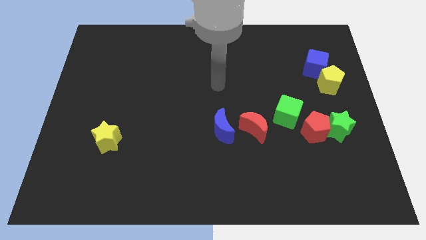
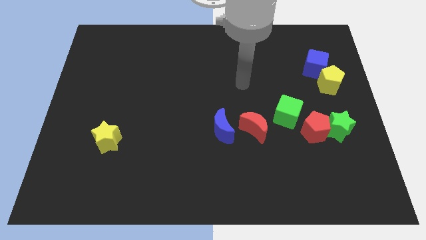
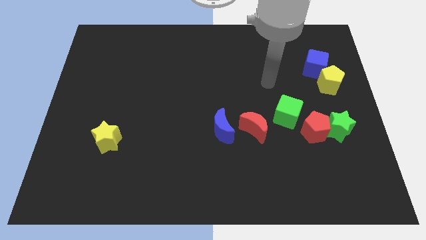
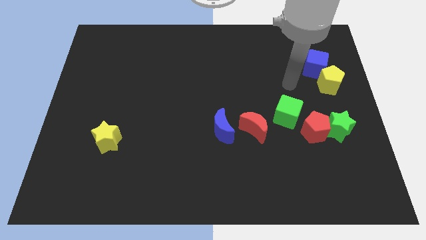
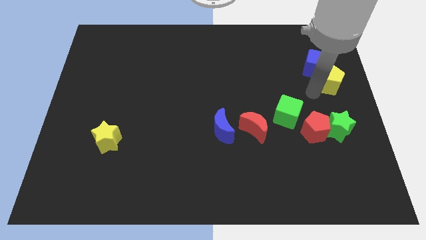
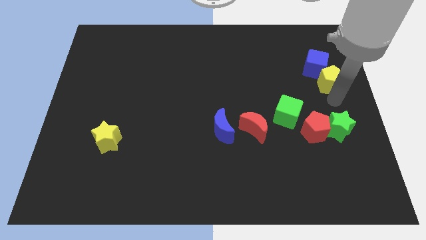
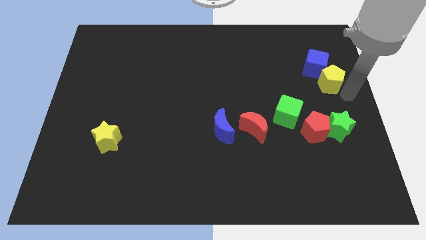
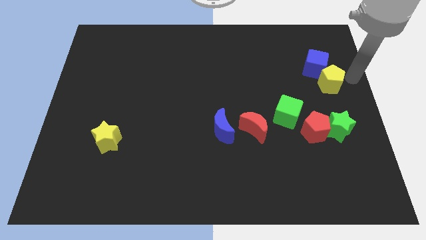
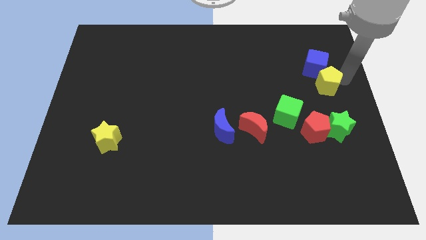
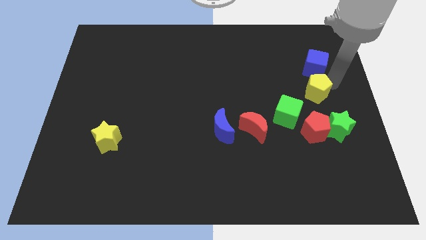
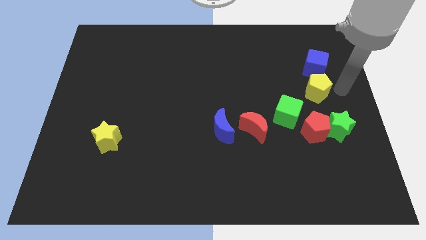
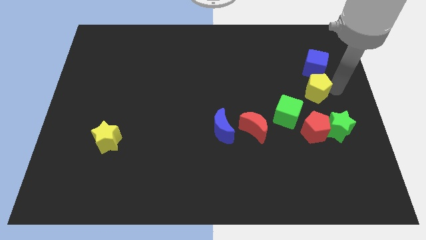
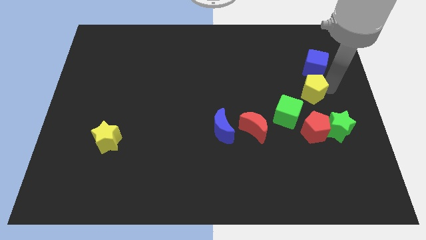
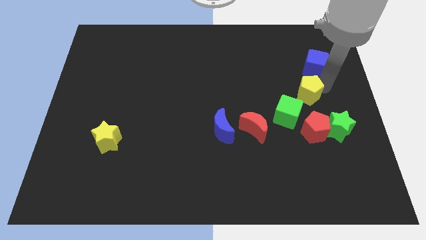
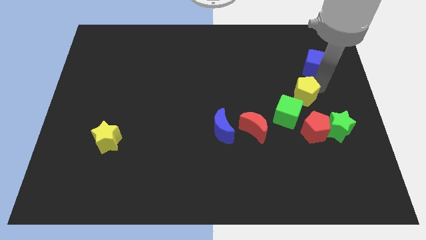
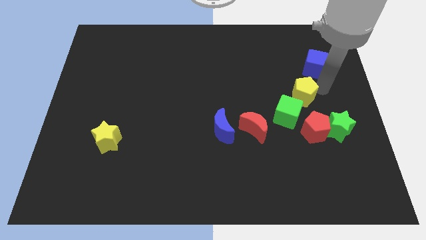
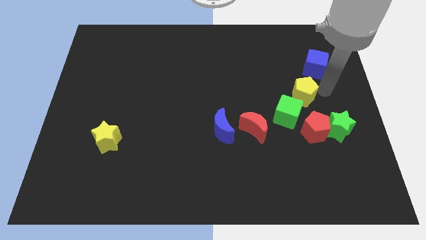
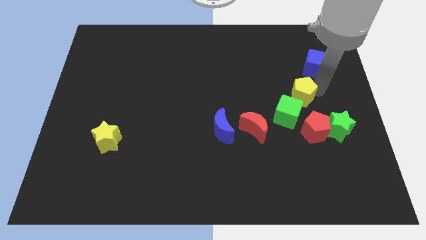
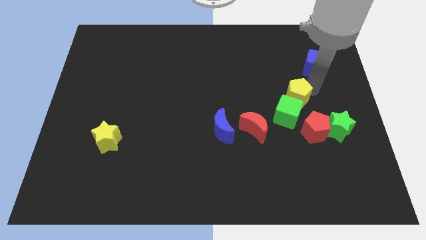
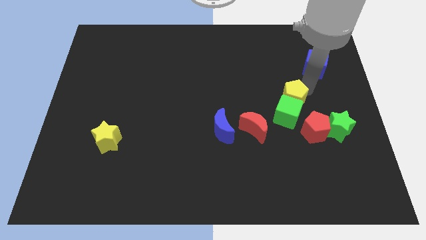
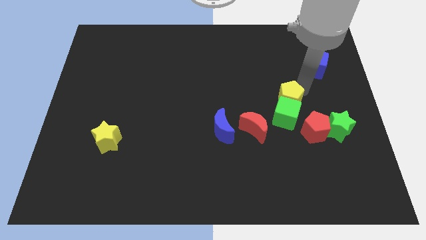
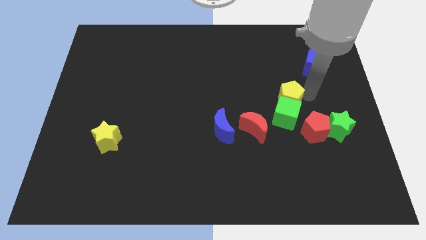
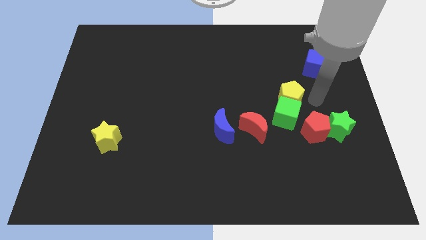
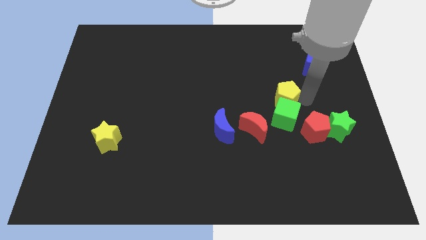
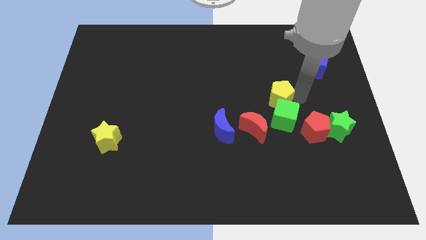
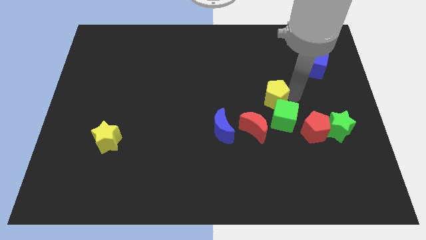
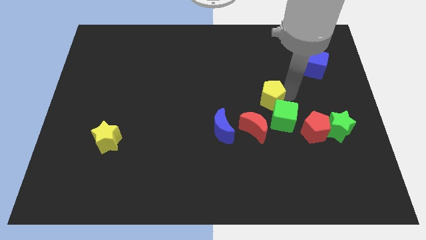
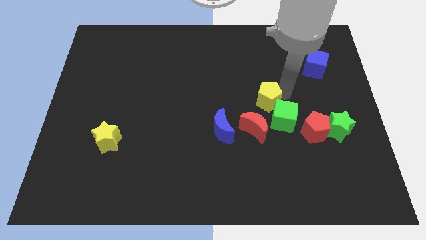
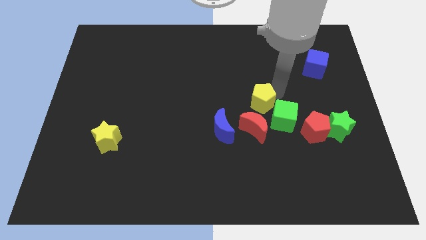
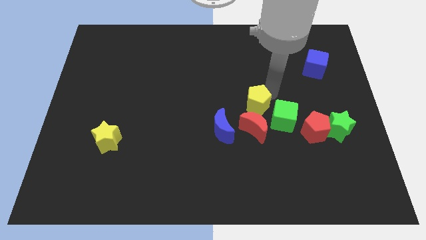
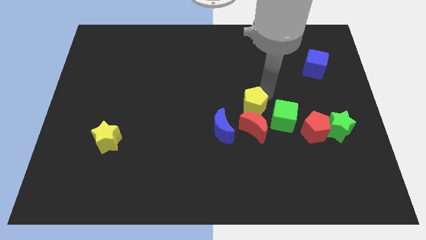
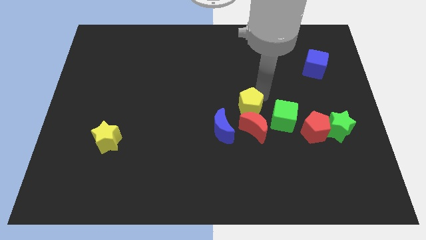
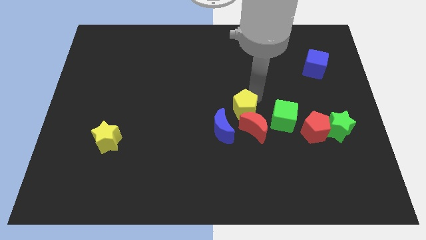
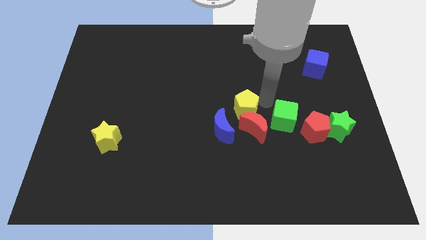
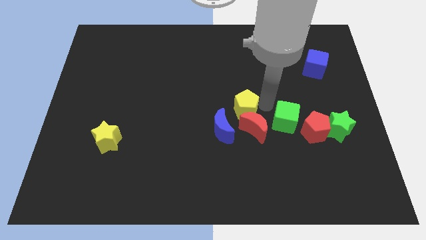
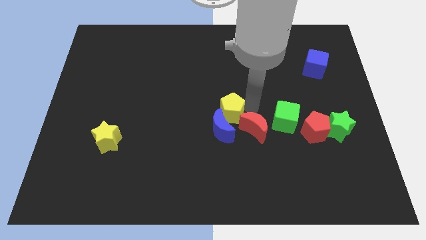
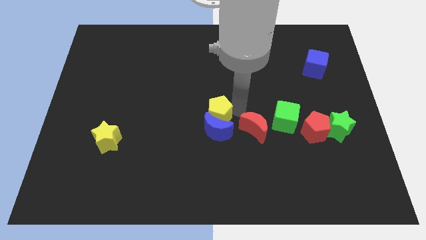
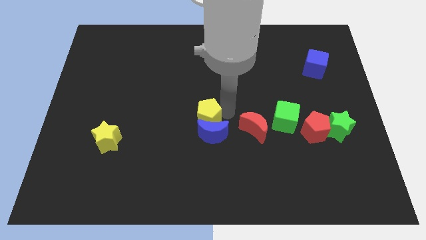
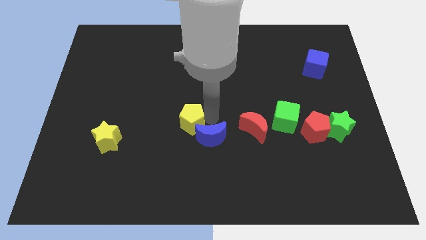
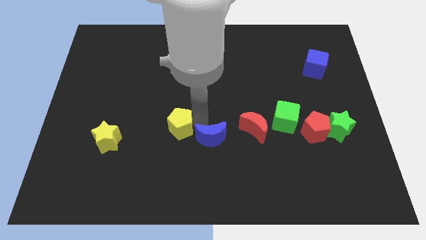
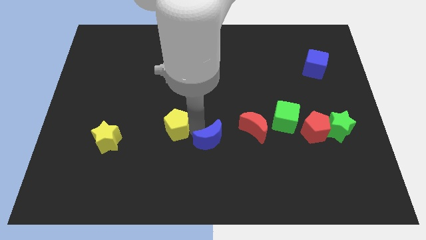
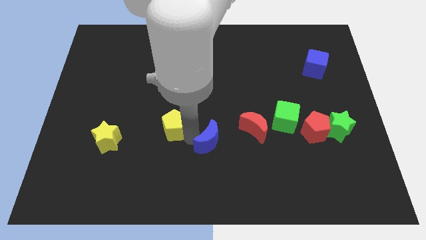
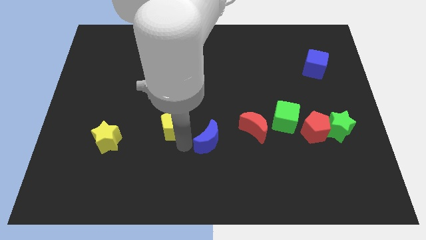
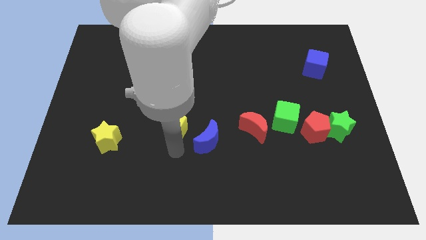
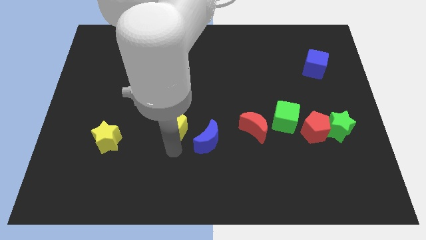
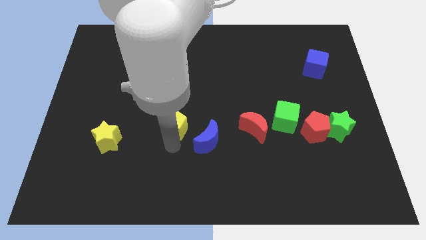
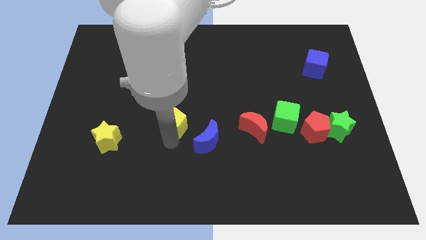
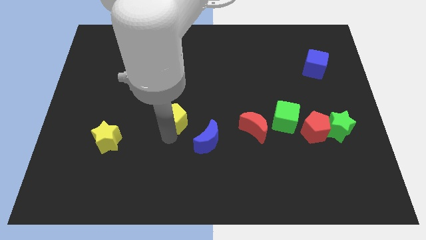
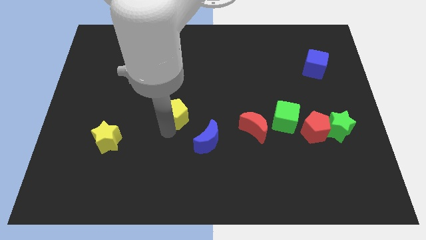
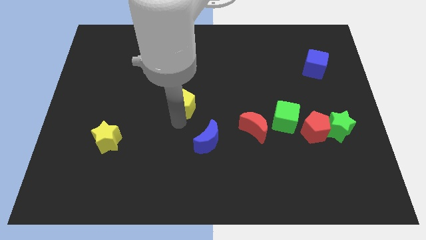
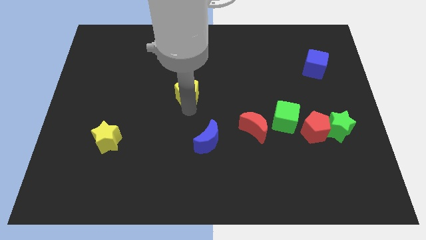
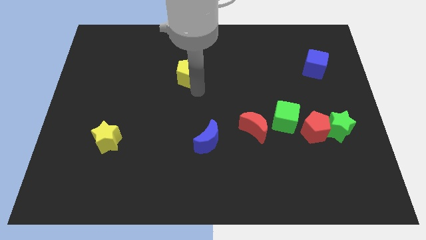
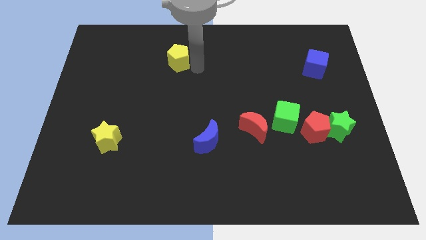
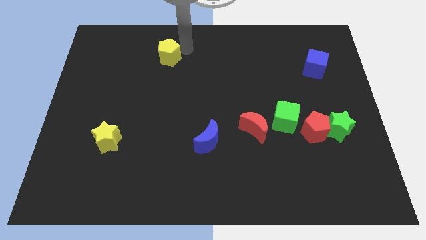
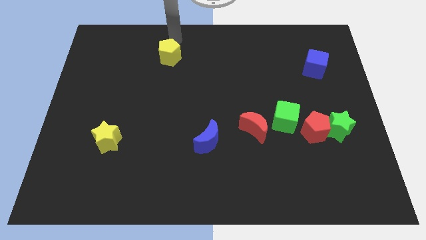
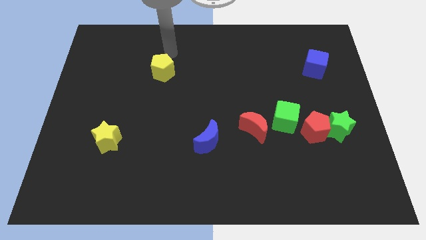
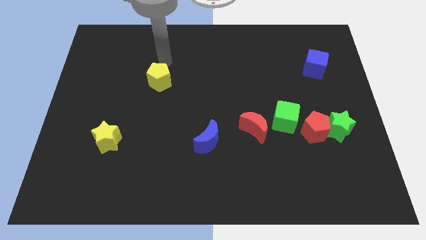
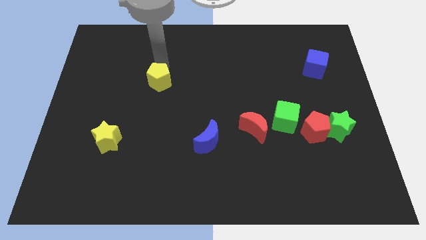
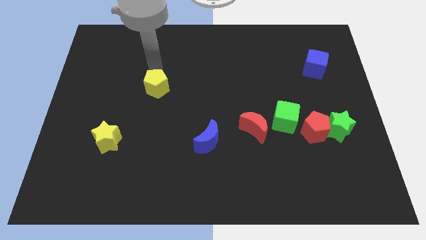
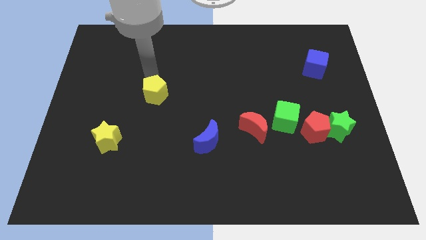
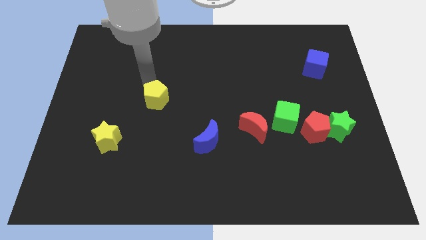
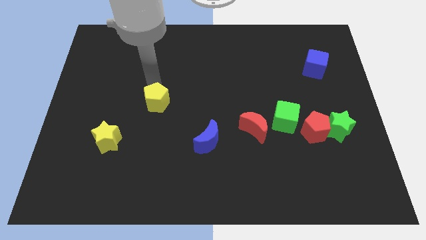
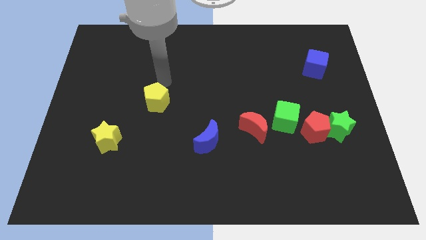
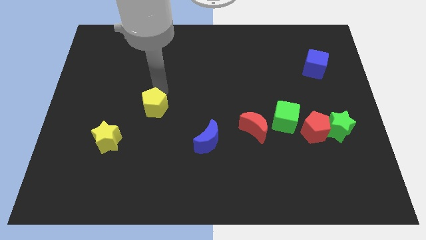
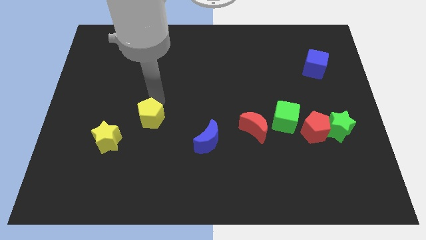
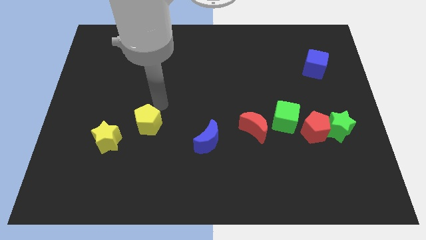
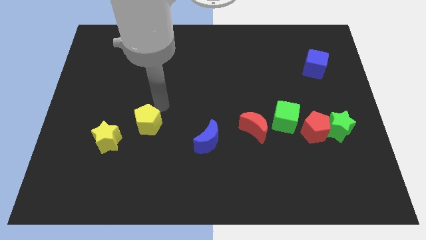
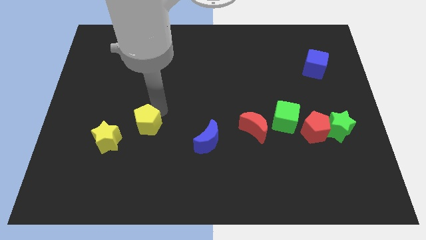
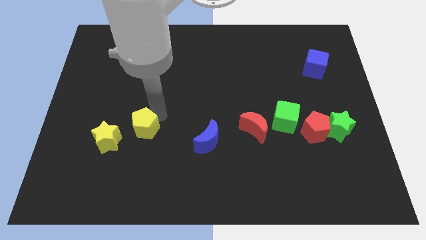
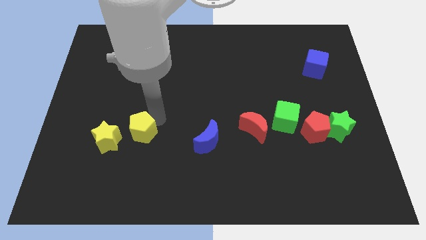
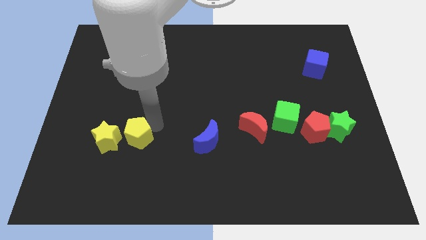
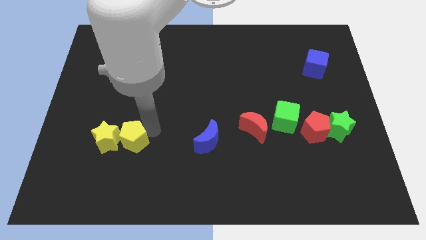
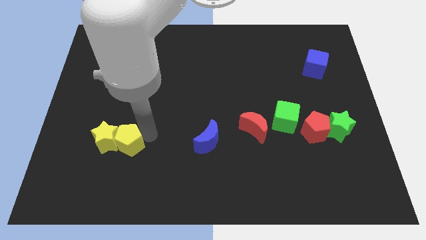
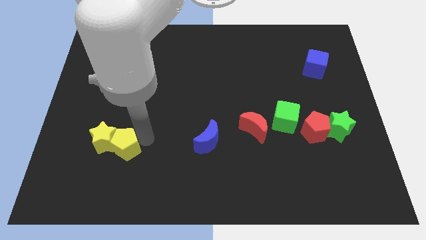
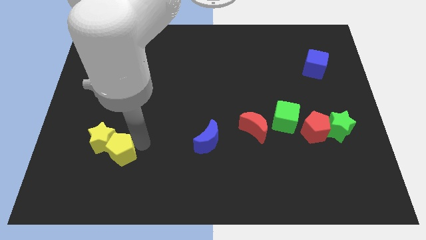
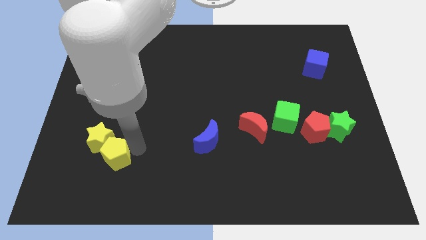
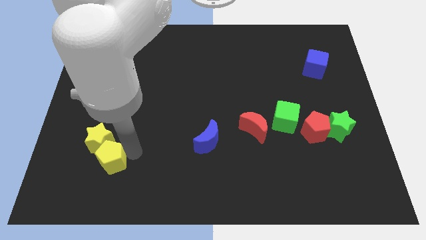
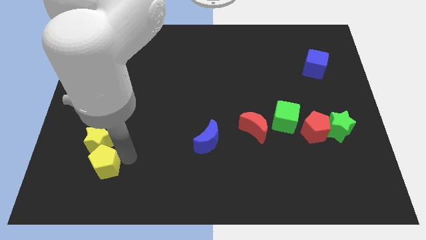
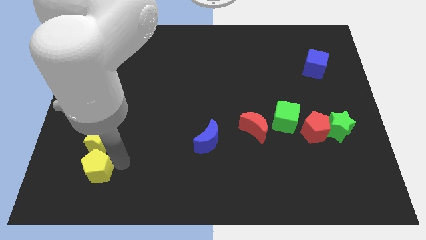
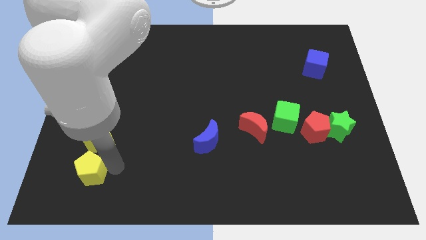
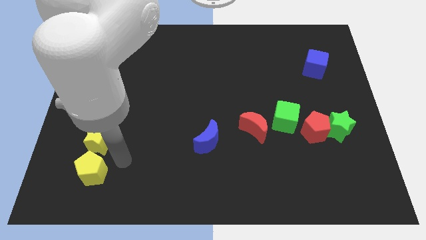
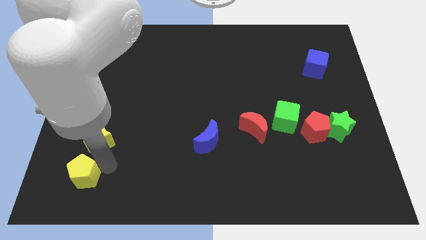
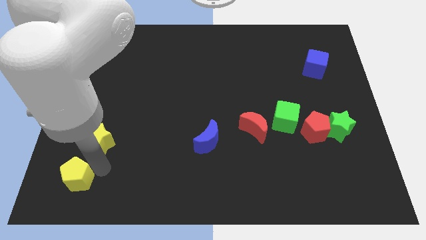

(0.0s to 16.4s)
move the yellow pentagon to the bottom left
